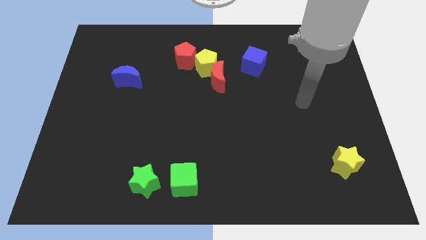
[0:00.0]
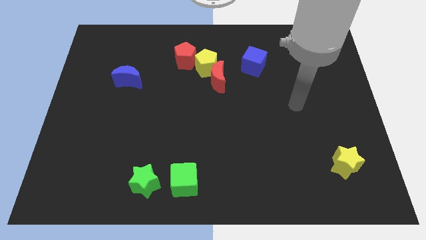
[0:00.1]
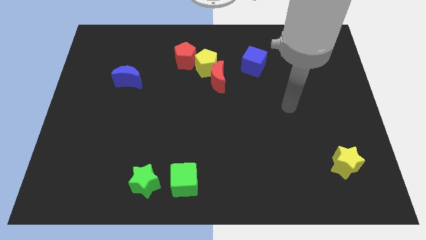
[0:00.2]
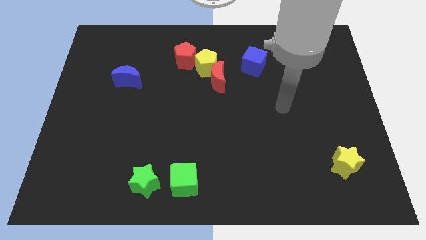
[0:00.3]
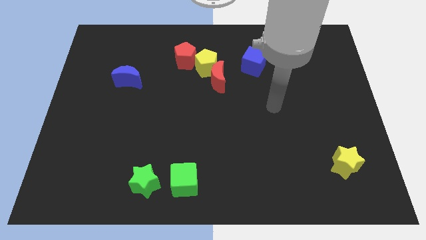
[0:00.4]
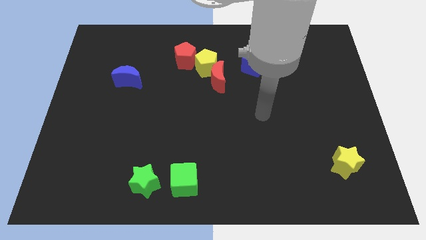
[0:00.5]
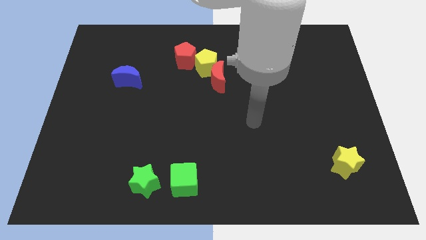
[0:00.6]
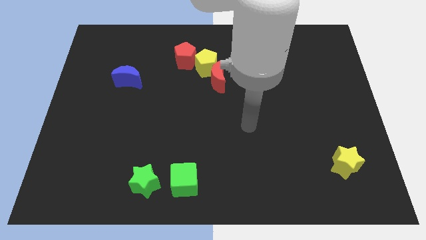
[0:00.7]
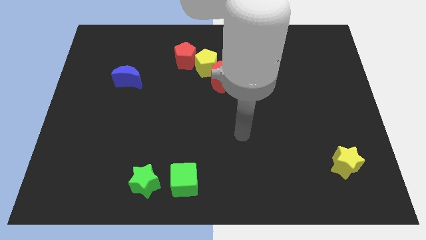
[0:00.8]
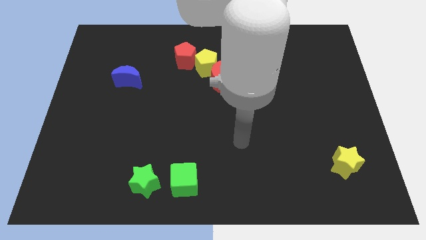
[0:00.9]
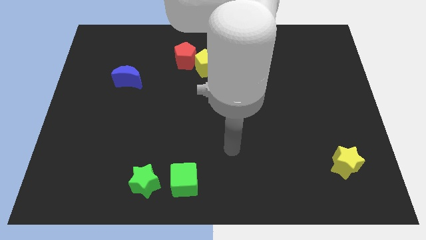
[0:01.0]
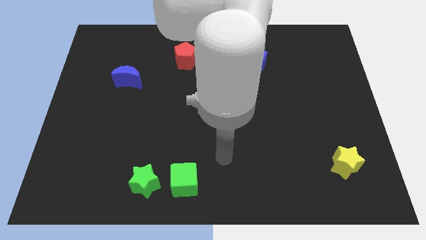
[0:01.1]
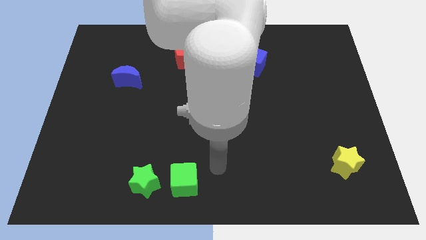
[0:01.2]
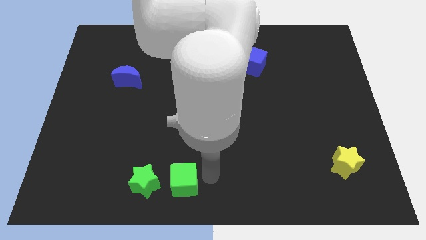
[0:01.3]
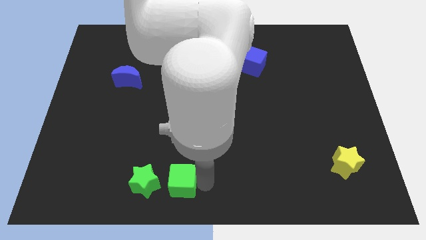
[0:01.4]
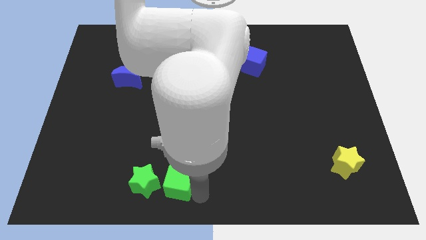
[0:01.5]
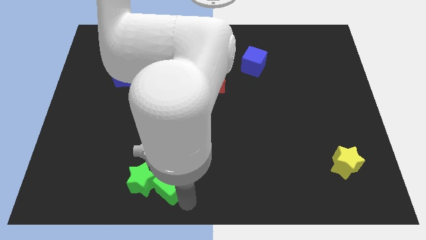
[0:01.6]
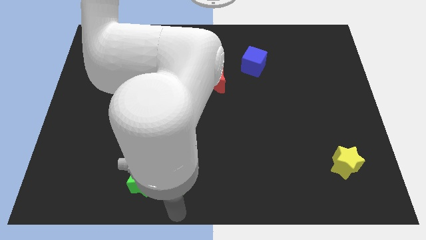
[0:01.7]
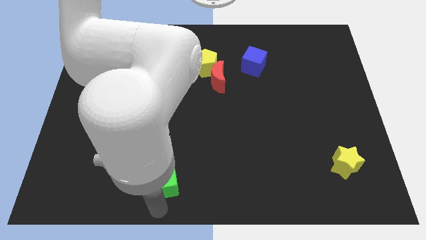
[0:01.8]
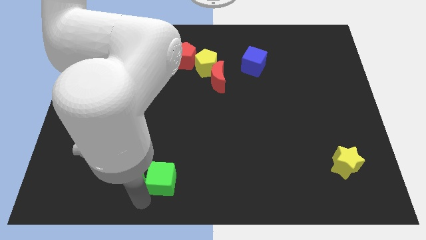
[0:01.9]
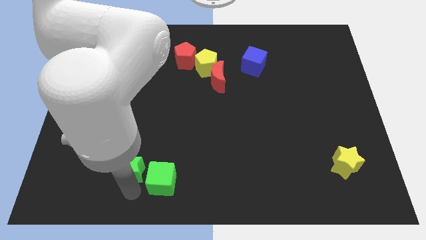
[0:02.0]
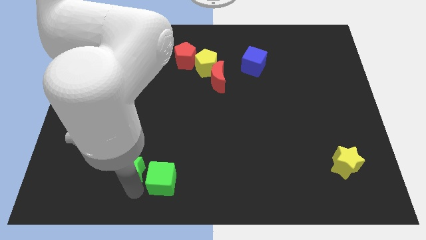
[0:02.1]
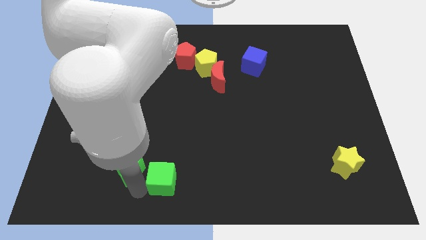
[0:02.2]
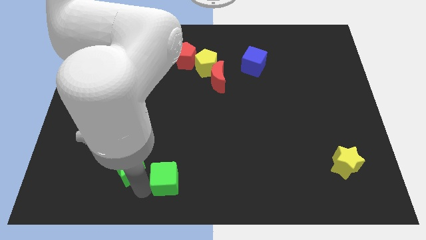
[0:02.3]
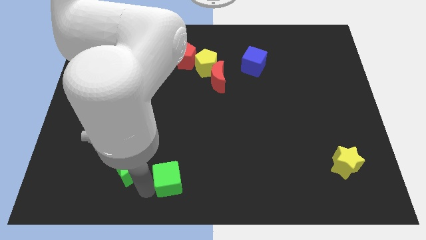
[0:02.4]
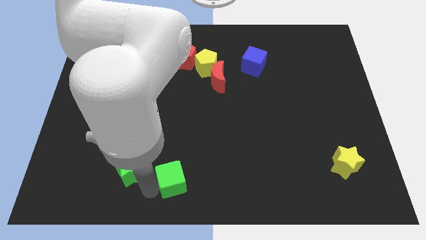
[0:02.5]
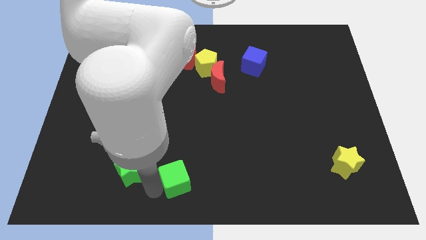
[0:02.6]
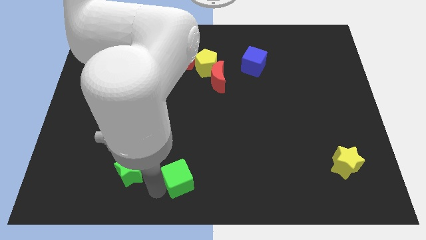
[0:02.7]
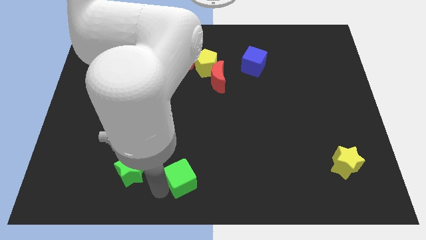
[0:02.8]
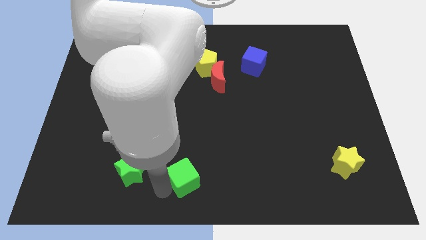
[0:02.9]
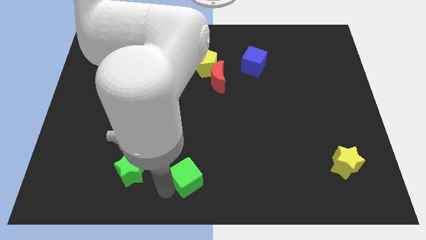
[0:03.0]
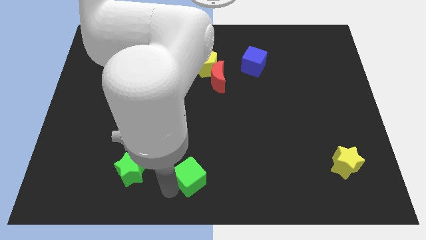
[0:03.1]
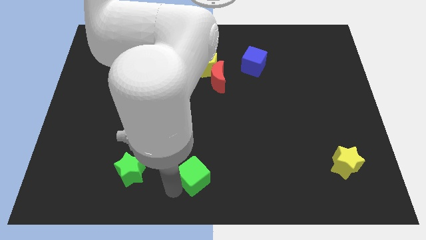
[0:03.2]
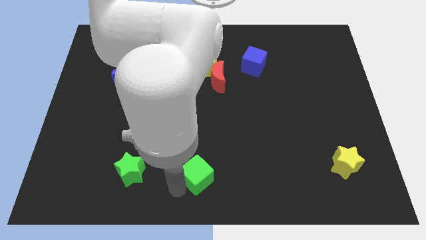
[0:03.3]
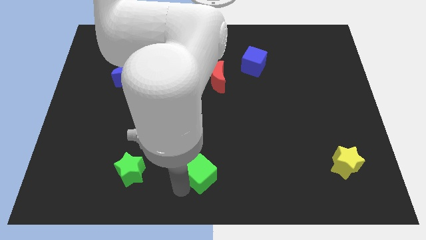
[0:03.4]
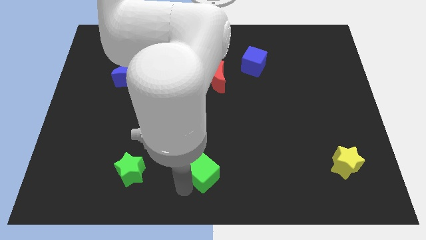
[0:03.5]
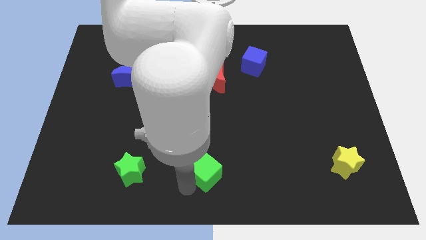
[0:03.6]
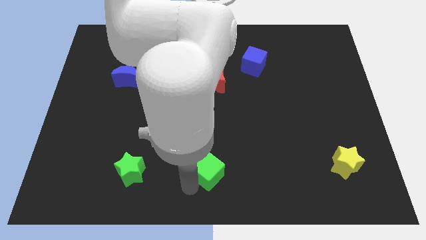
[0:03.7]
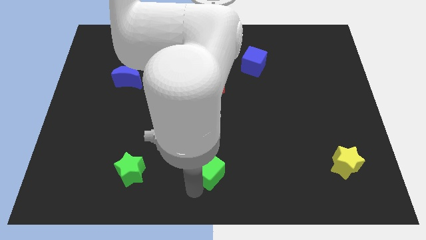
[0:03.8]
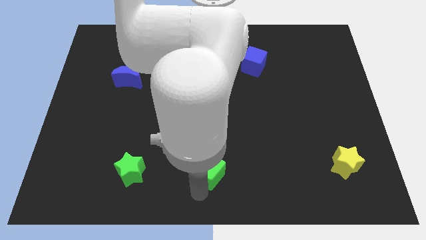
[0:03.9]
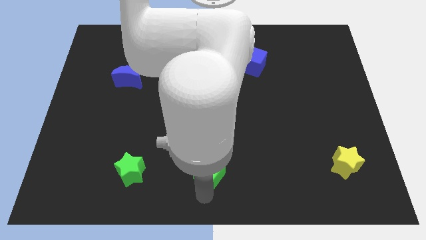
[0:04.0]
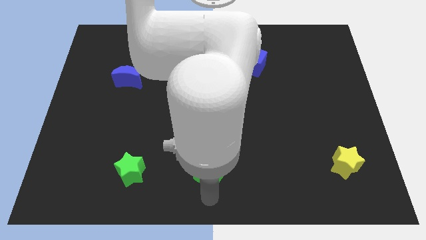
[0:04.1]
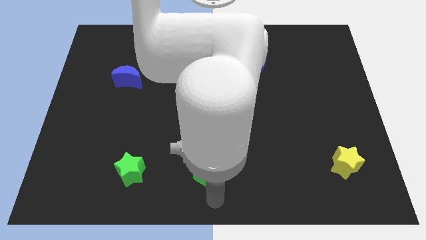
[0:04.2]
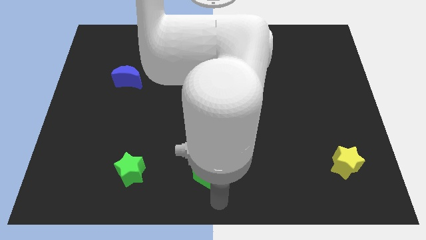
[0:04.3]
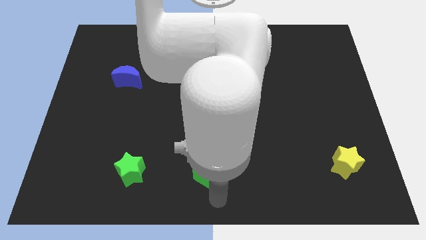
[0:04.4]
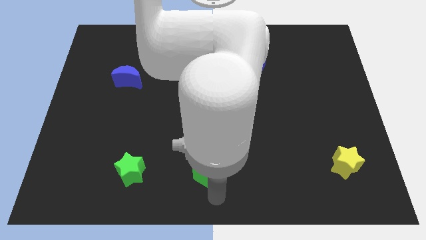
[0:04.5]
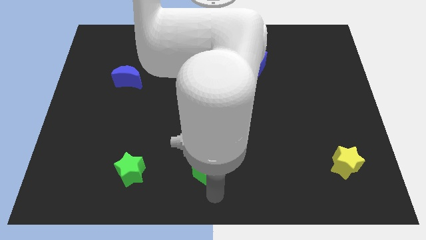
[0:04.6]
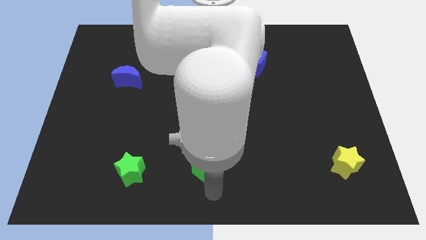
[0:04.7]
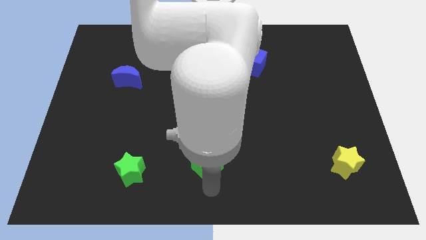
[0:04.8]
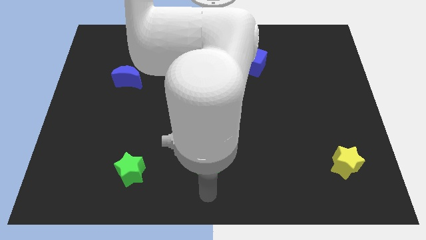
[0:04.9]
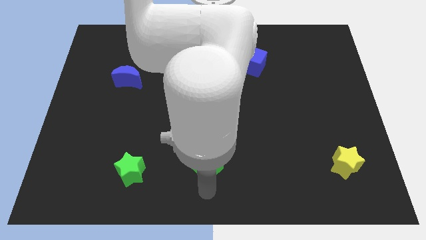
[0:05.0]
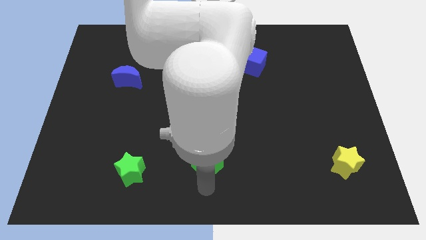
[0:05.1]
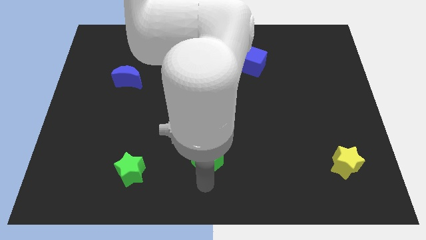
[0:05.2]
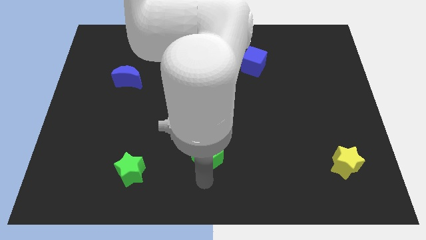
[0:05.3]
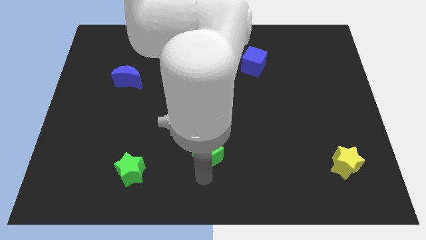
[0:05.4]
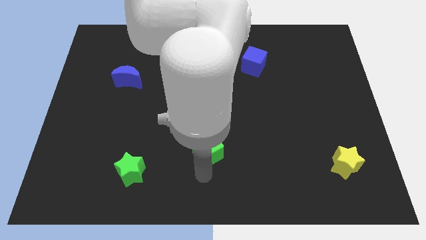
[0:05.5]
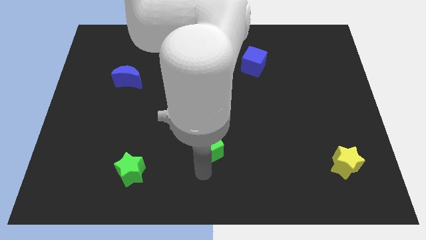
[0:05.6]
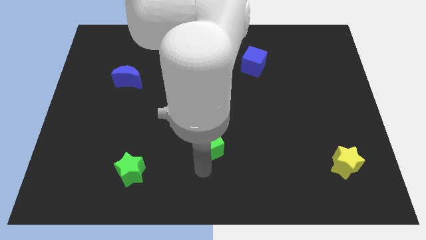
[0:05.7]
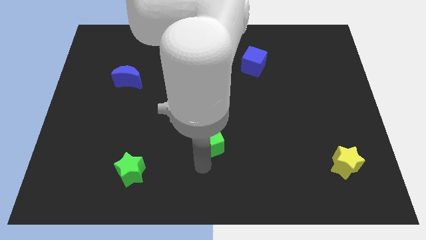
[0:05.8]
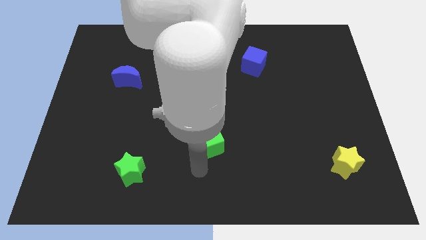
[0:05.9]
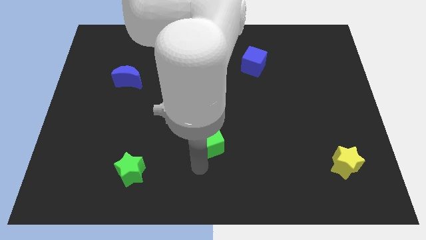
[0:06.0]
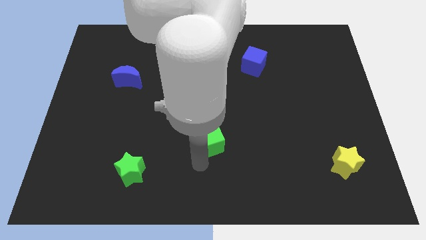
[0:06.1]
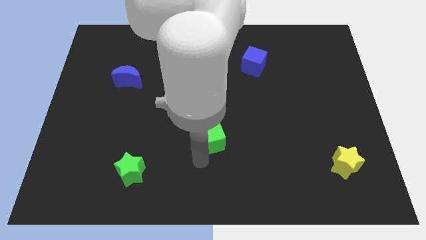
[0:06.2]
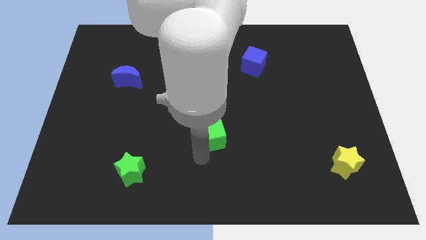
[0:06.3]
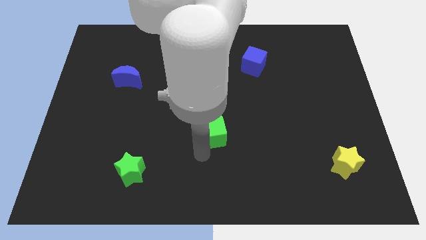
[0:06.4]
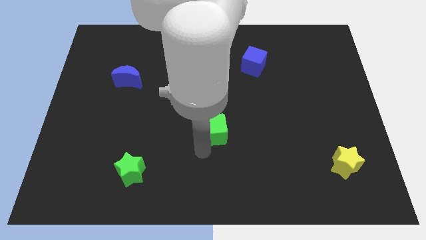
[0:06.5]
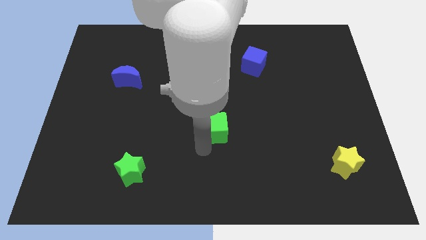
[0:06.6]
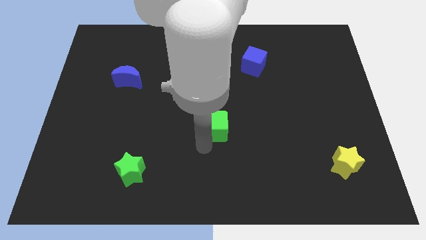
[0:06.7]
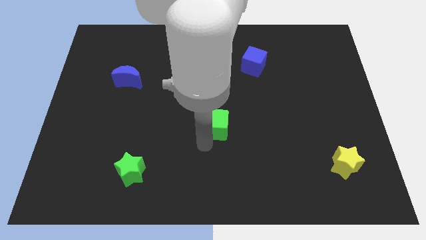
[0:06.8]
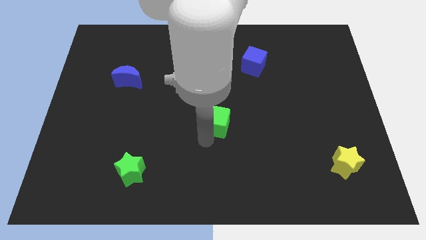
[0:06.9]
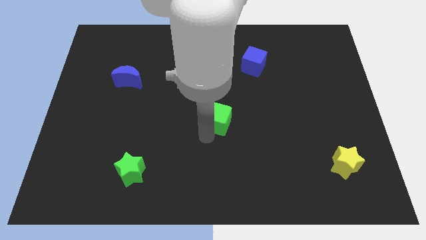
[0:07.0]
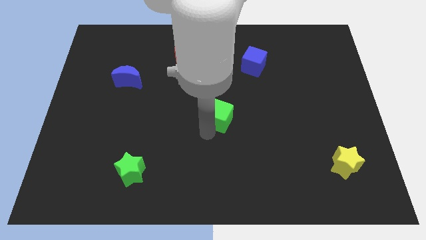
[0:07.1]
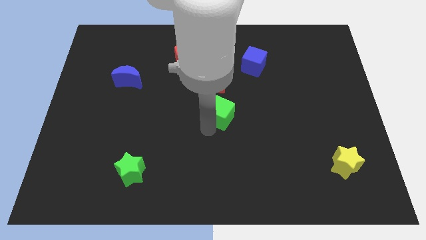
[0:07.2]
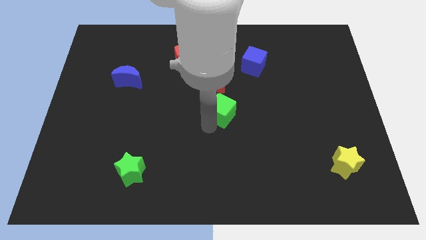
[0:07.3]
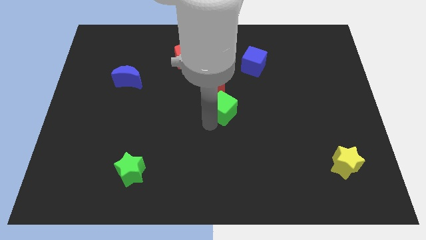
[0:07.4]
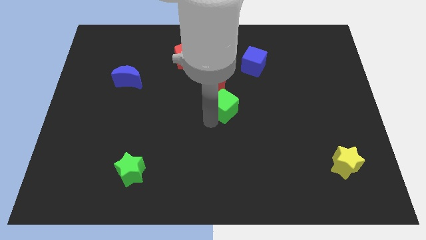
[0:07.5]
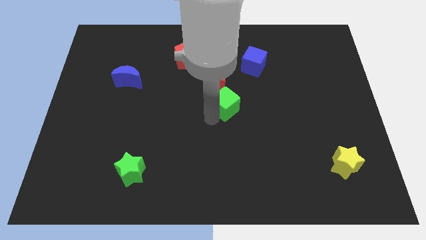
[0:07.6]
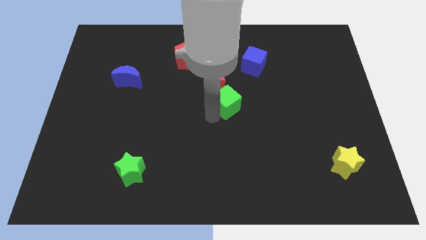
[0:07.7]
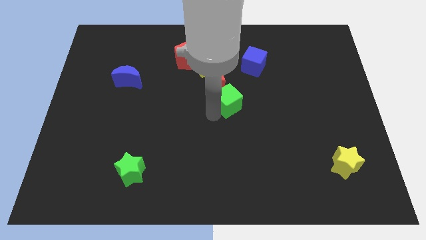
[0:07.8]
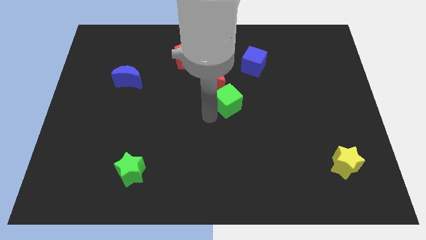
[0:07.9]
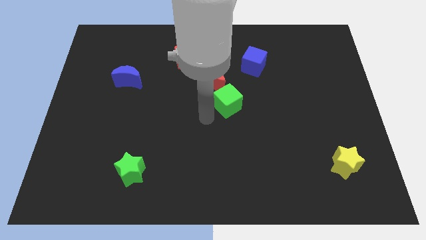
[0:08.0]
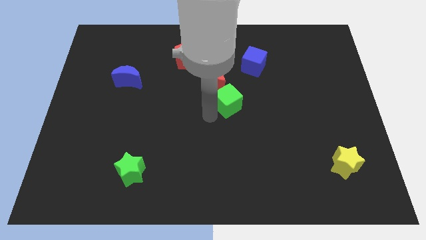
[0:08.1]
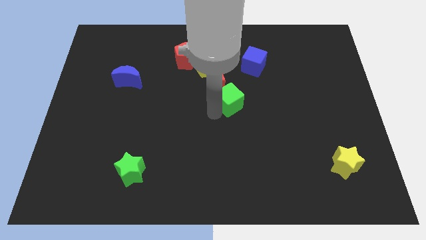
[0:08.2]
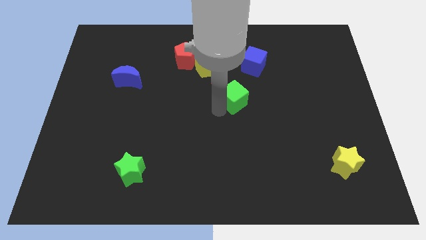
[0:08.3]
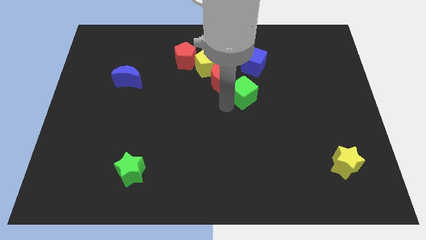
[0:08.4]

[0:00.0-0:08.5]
move the green cube to the right side of the red moon
